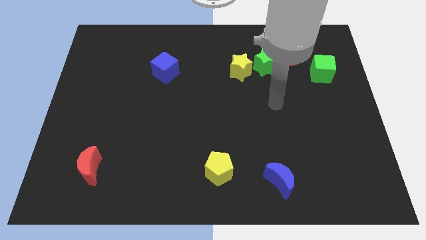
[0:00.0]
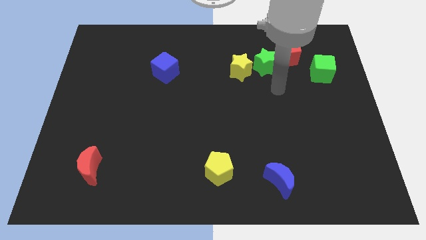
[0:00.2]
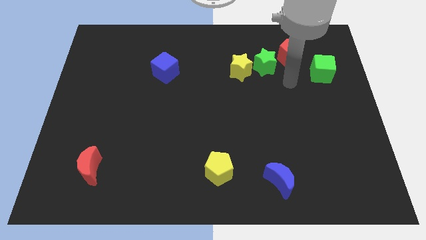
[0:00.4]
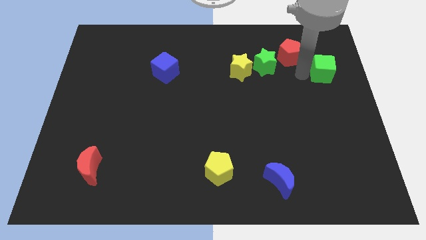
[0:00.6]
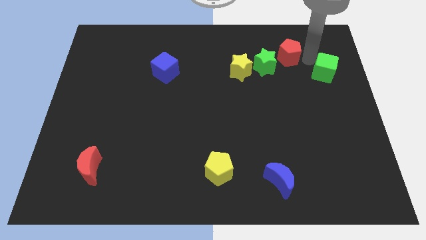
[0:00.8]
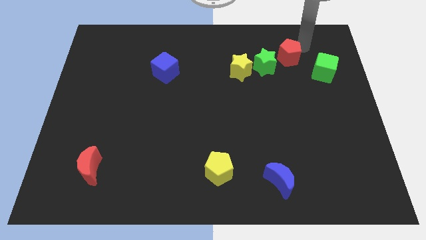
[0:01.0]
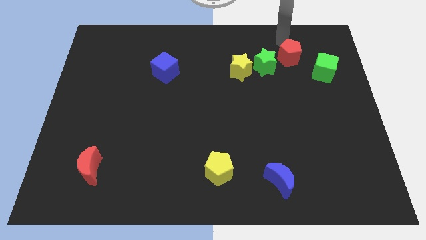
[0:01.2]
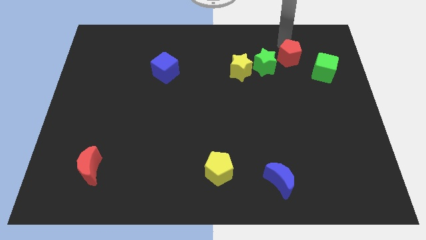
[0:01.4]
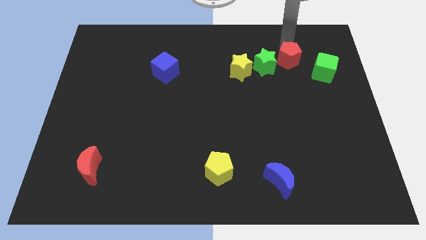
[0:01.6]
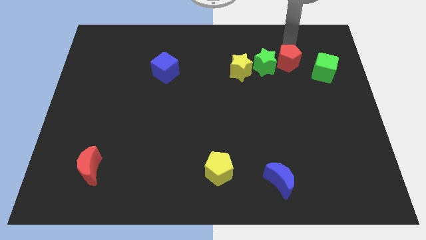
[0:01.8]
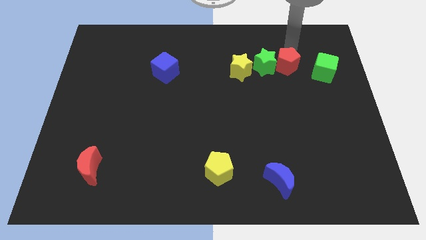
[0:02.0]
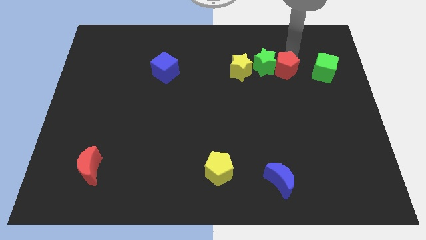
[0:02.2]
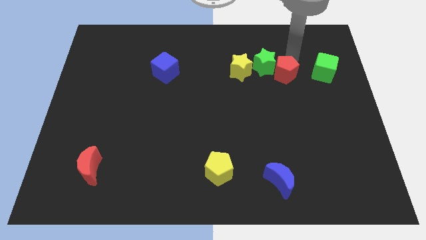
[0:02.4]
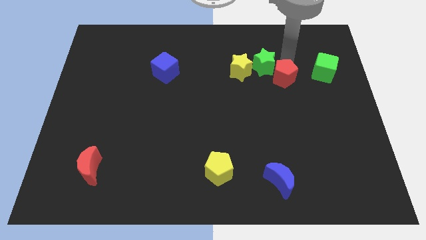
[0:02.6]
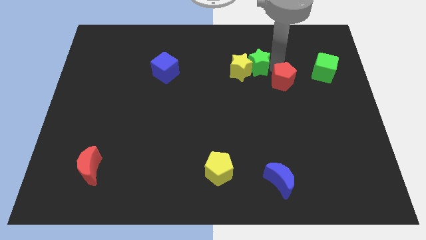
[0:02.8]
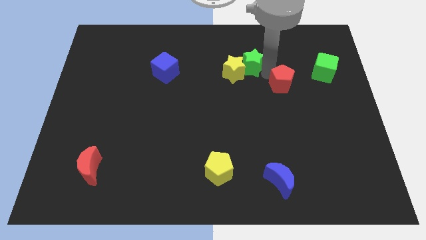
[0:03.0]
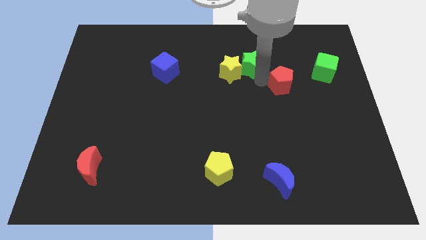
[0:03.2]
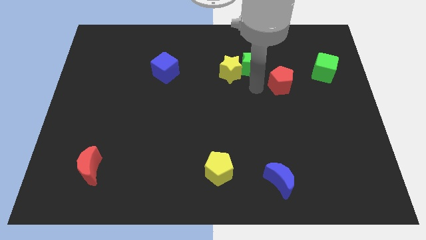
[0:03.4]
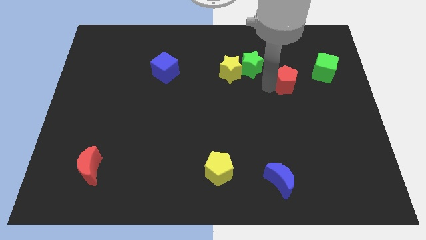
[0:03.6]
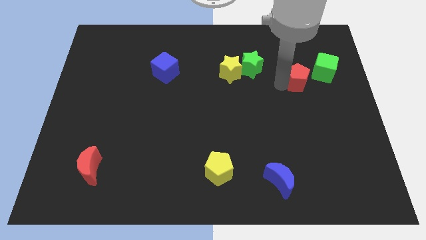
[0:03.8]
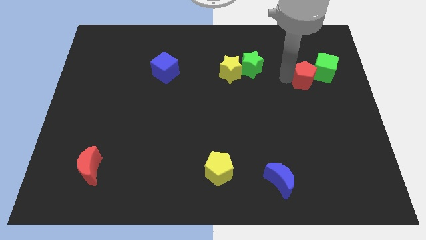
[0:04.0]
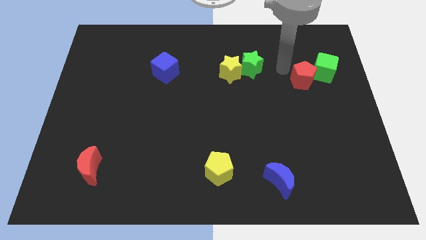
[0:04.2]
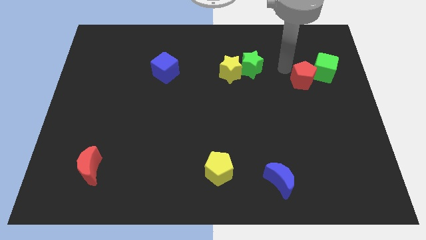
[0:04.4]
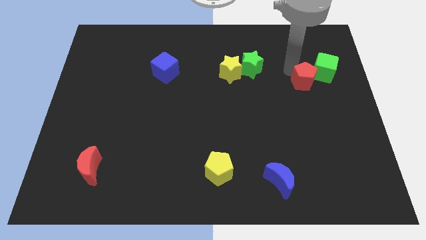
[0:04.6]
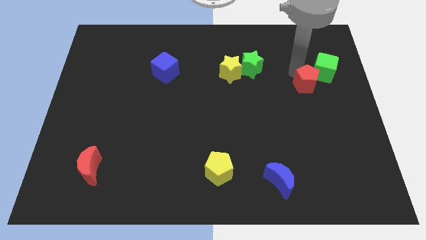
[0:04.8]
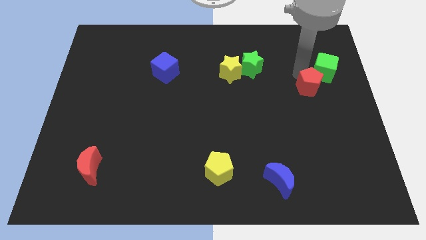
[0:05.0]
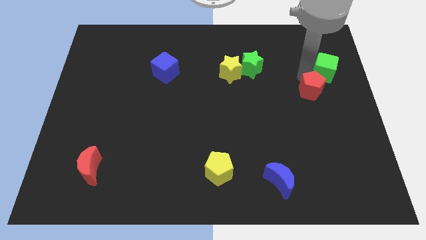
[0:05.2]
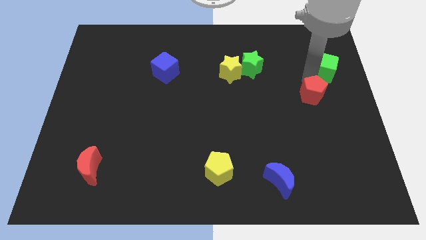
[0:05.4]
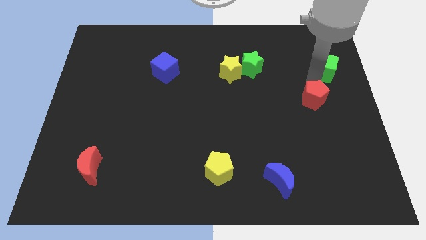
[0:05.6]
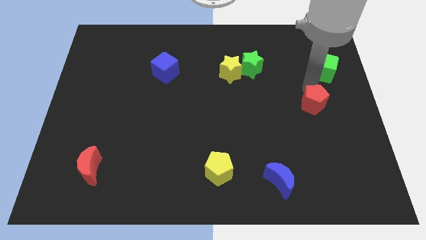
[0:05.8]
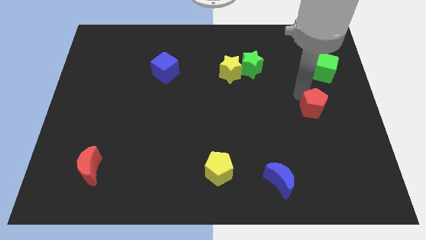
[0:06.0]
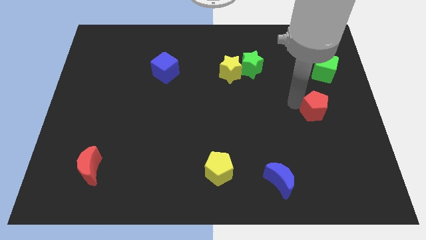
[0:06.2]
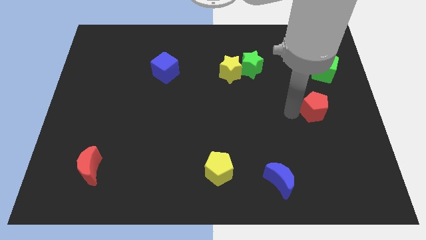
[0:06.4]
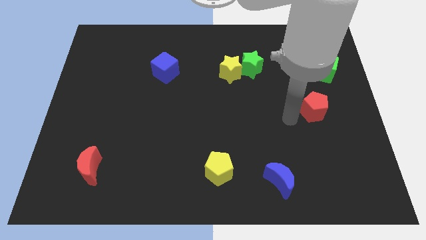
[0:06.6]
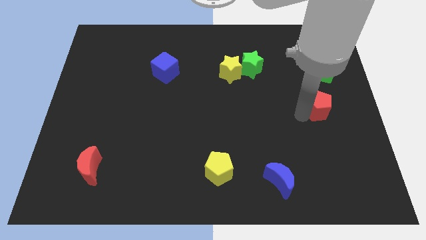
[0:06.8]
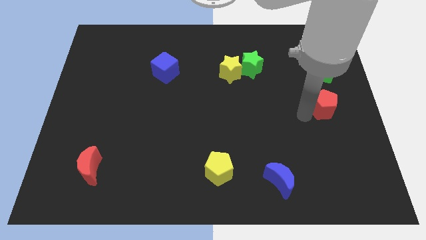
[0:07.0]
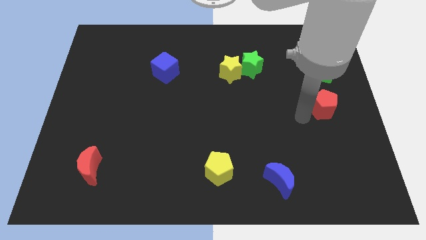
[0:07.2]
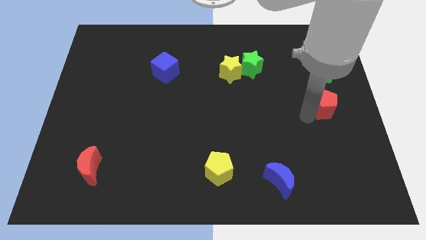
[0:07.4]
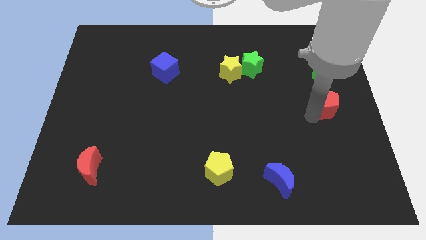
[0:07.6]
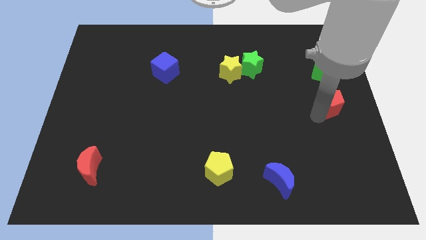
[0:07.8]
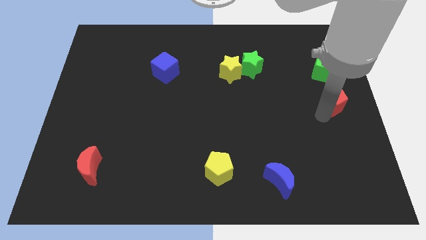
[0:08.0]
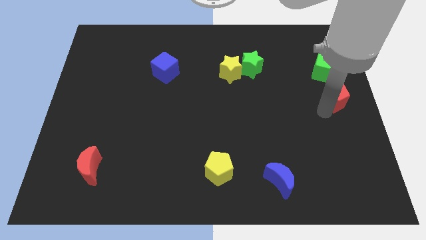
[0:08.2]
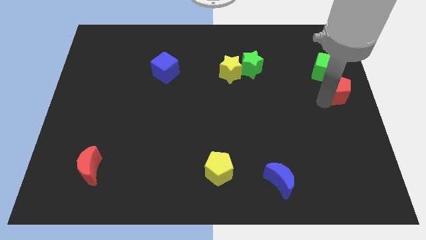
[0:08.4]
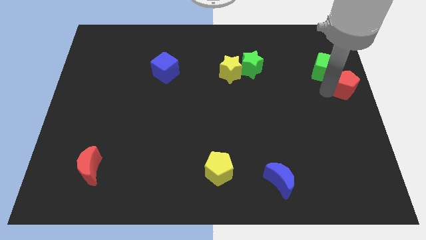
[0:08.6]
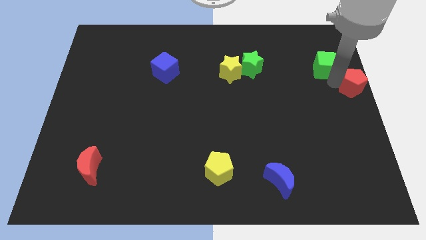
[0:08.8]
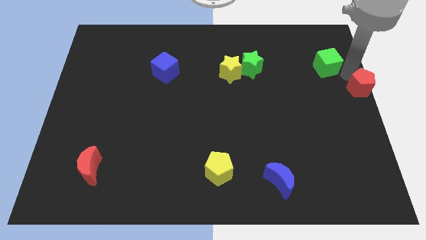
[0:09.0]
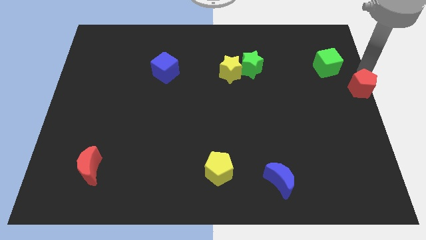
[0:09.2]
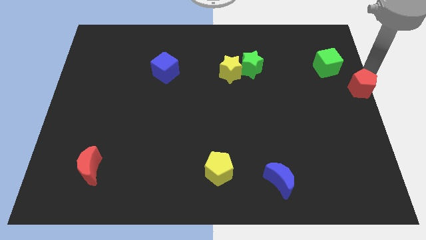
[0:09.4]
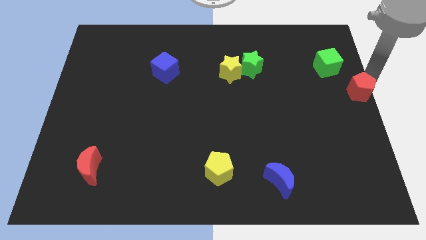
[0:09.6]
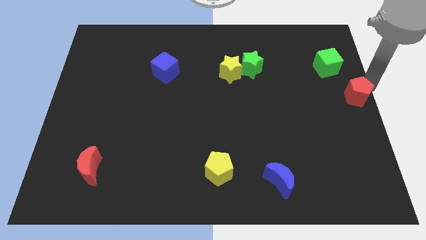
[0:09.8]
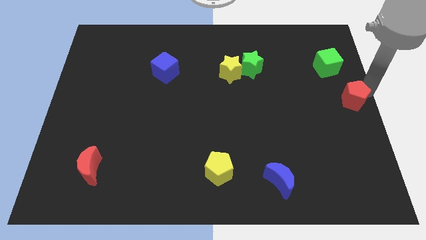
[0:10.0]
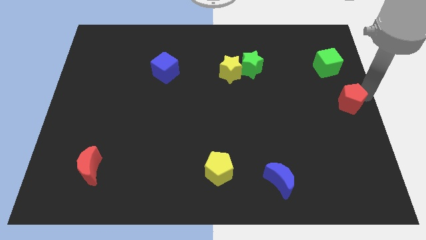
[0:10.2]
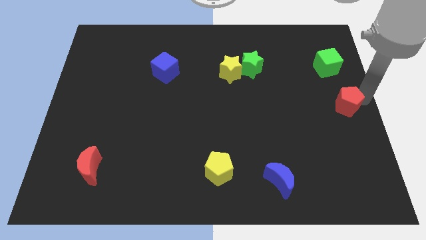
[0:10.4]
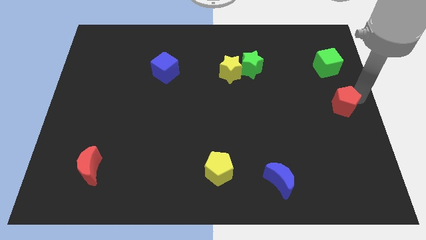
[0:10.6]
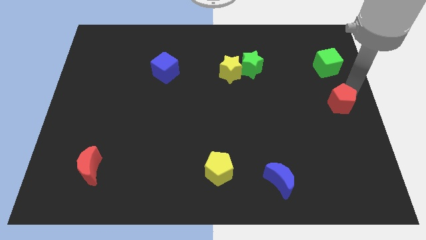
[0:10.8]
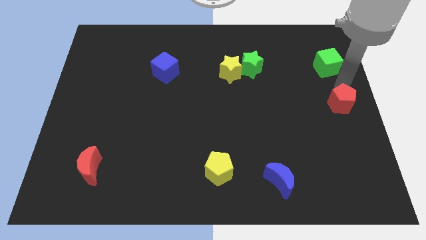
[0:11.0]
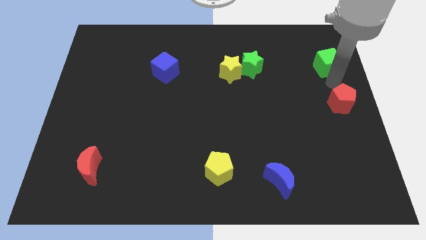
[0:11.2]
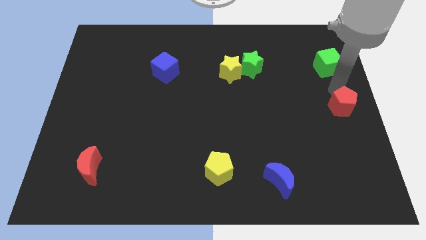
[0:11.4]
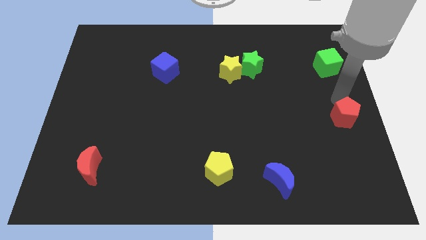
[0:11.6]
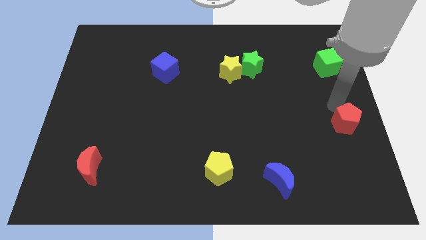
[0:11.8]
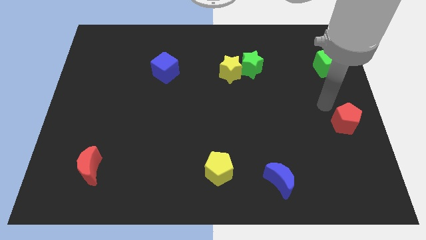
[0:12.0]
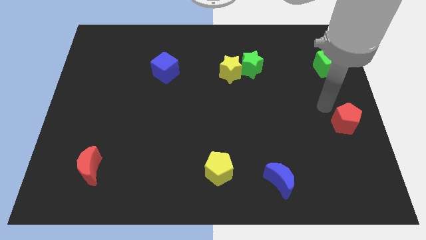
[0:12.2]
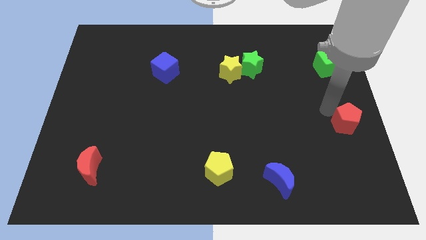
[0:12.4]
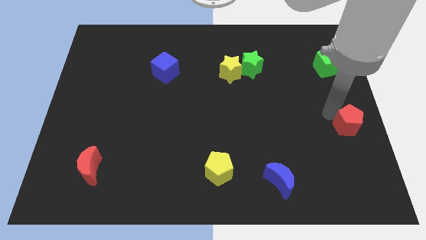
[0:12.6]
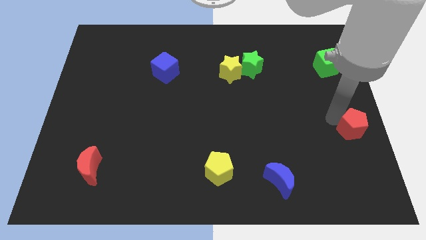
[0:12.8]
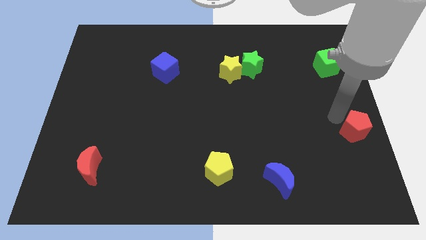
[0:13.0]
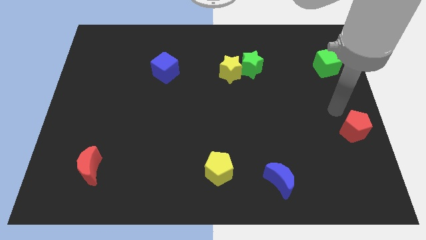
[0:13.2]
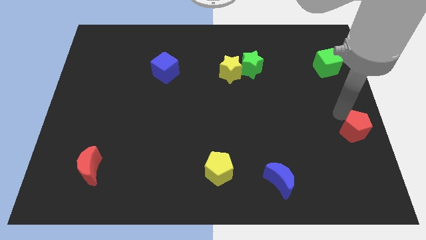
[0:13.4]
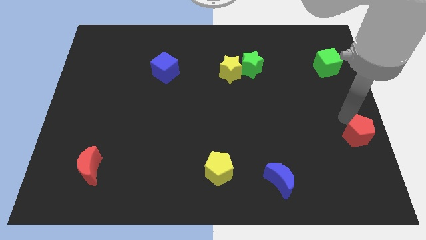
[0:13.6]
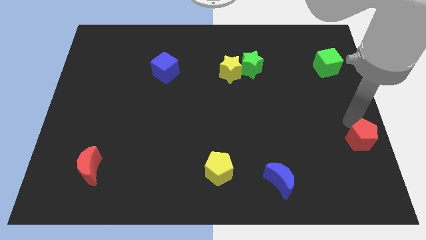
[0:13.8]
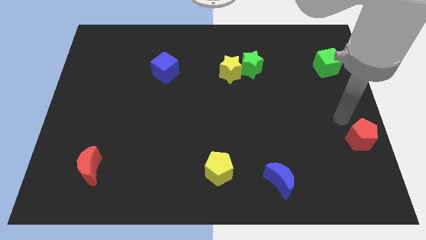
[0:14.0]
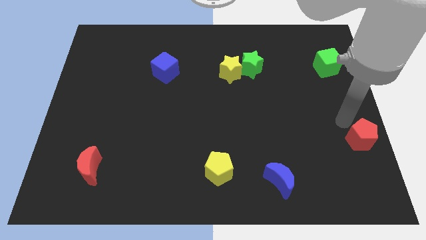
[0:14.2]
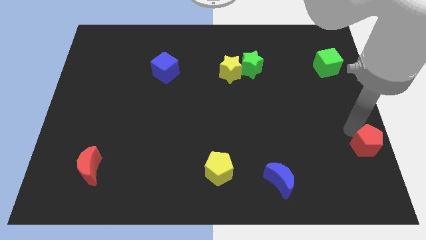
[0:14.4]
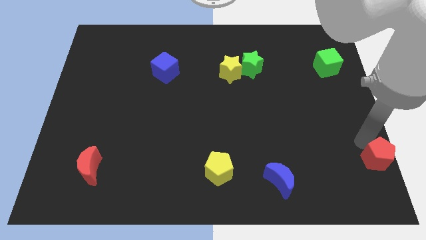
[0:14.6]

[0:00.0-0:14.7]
move the red pentagon to the bottom right
